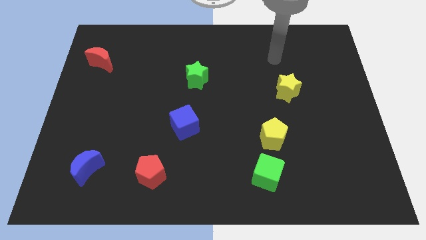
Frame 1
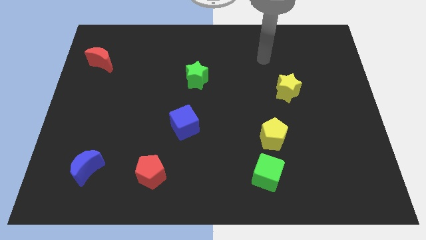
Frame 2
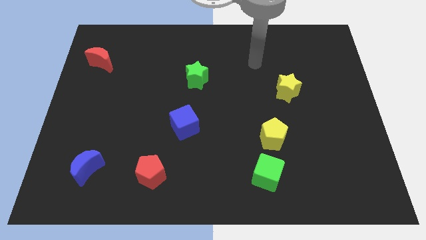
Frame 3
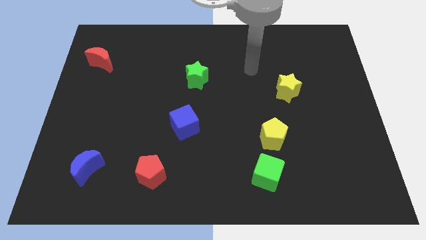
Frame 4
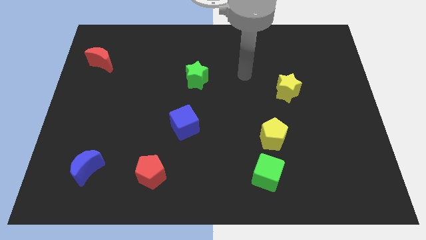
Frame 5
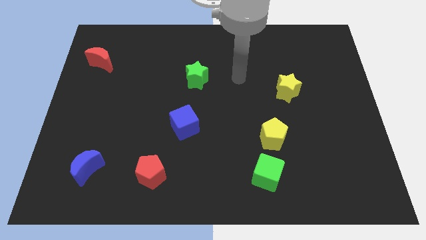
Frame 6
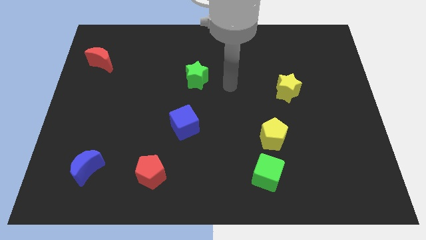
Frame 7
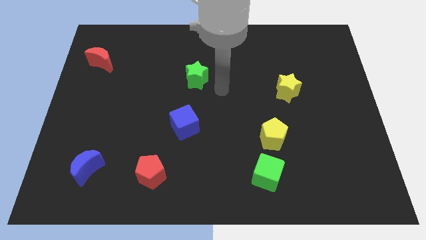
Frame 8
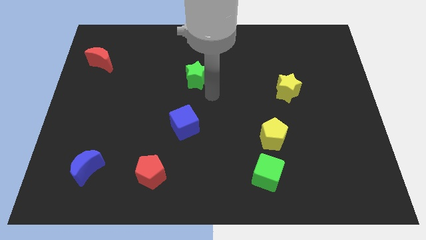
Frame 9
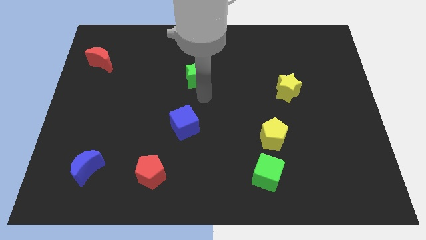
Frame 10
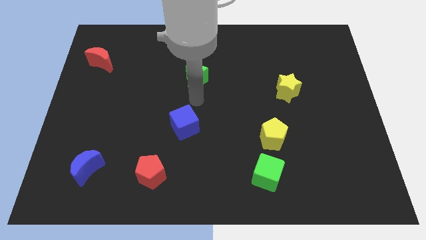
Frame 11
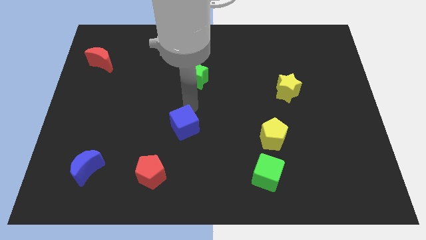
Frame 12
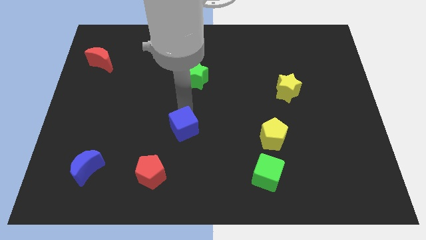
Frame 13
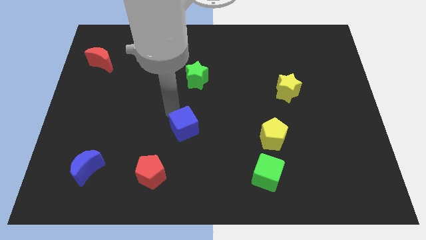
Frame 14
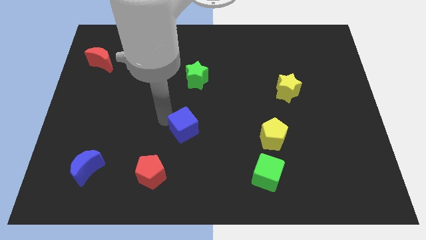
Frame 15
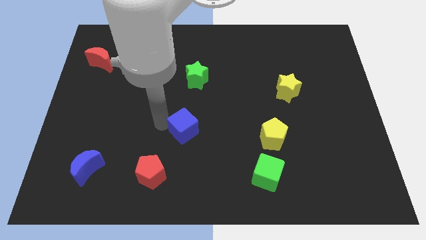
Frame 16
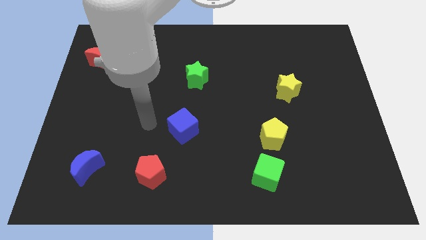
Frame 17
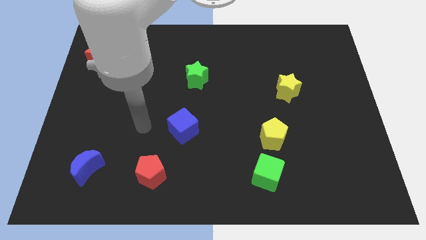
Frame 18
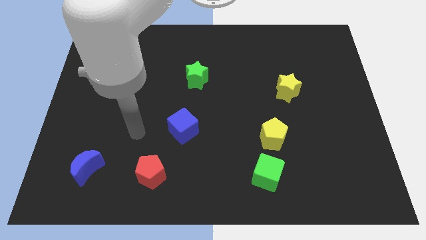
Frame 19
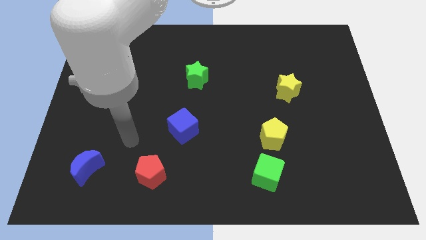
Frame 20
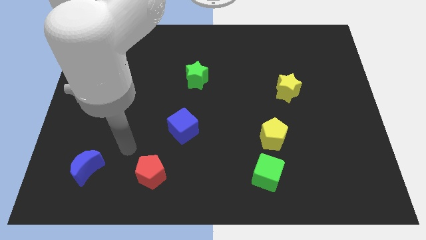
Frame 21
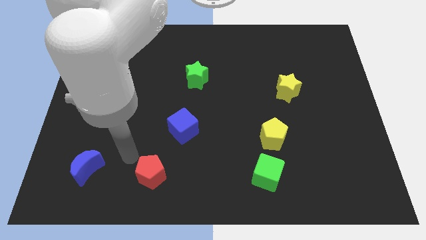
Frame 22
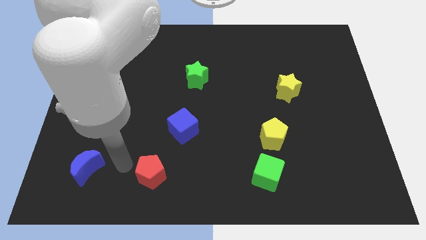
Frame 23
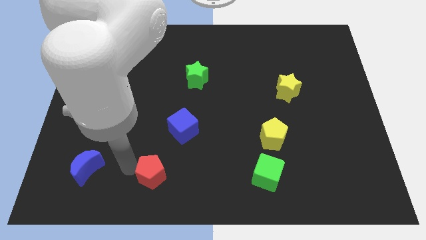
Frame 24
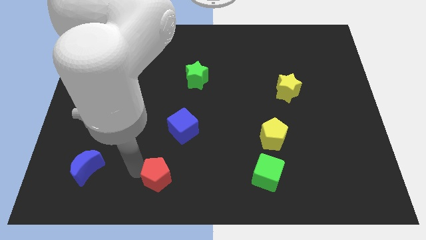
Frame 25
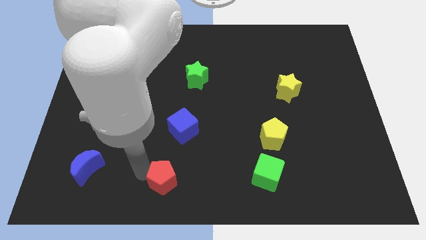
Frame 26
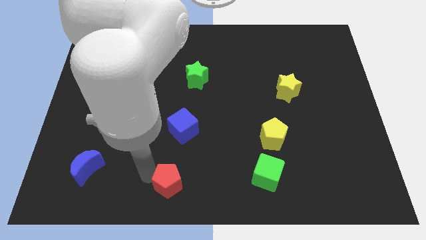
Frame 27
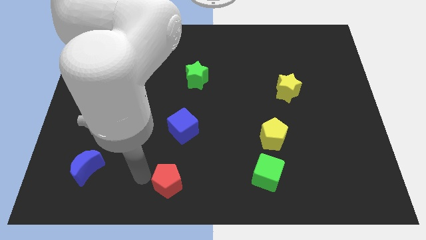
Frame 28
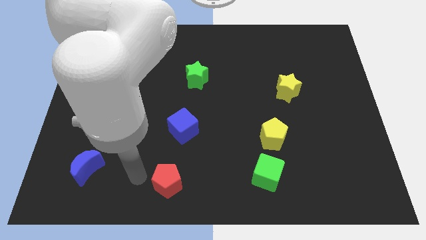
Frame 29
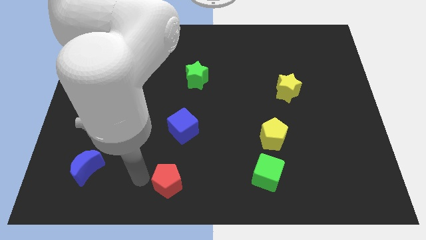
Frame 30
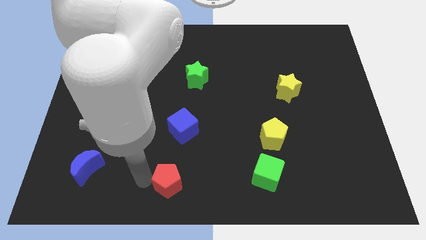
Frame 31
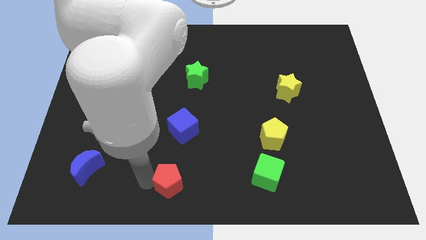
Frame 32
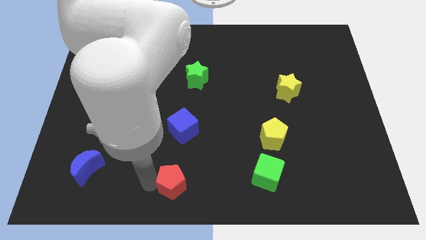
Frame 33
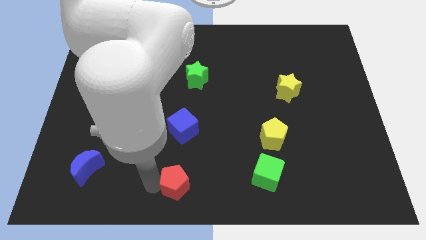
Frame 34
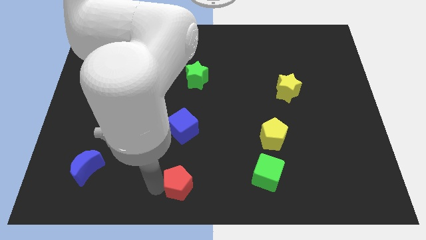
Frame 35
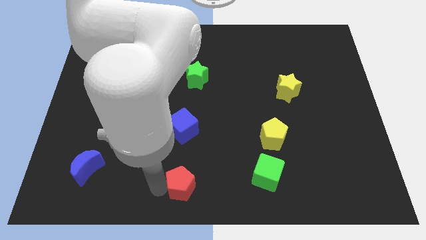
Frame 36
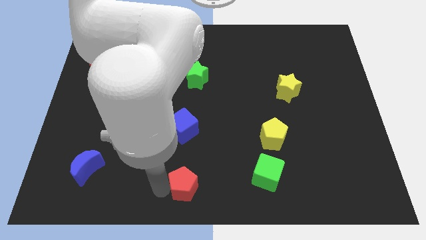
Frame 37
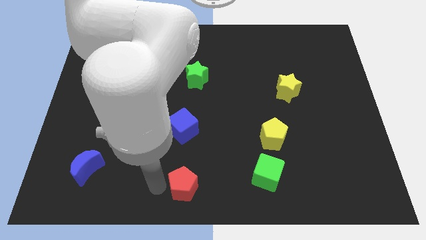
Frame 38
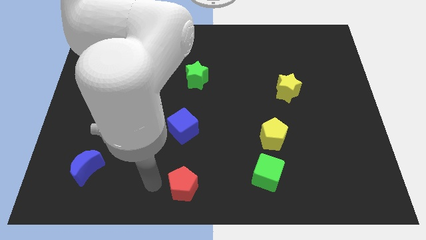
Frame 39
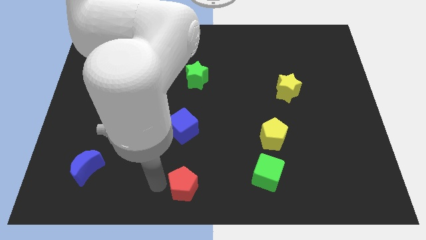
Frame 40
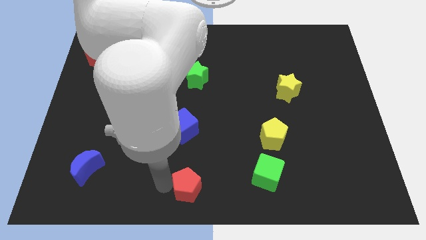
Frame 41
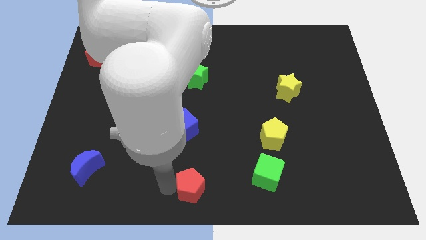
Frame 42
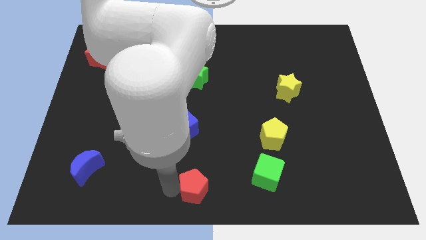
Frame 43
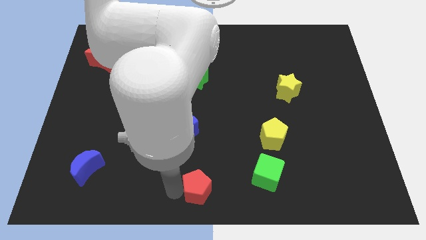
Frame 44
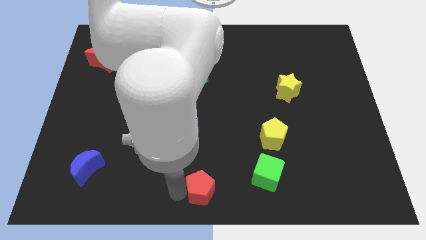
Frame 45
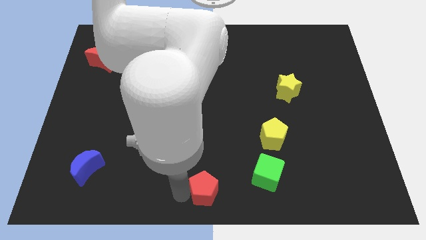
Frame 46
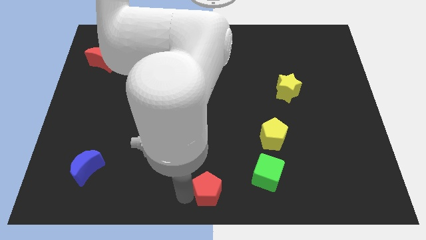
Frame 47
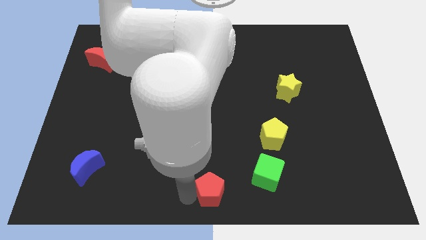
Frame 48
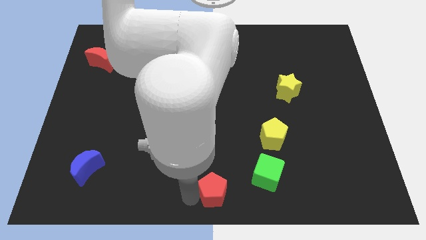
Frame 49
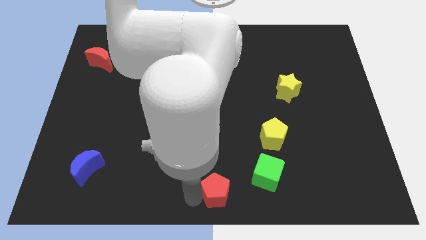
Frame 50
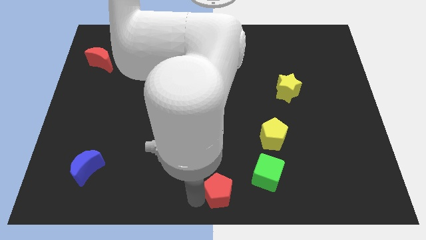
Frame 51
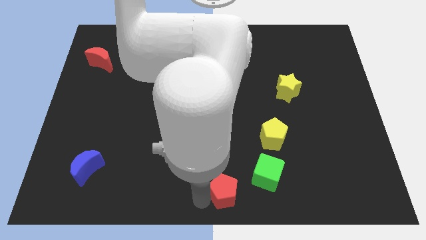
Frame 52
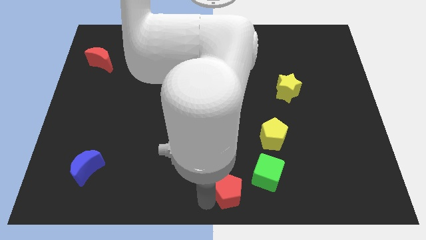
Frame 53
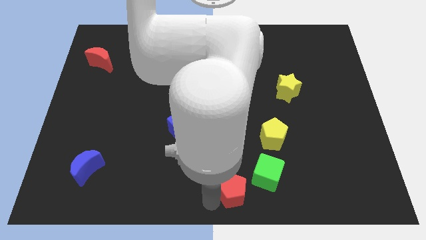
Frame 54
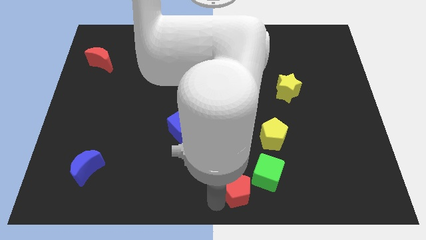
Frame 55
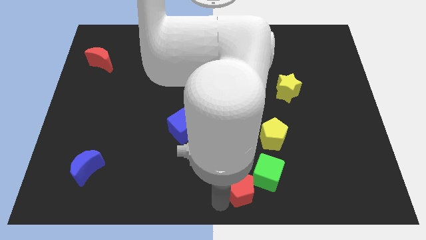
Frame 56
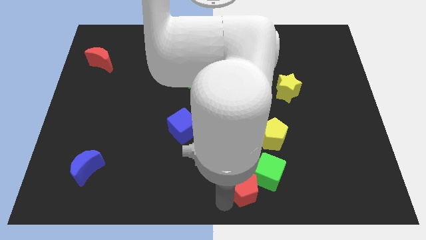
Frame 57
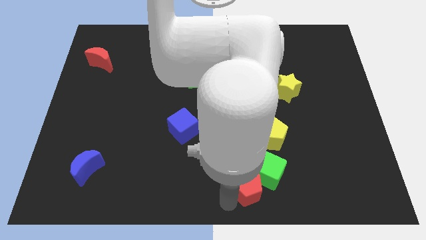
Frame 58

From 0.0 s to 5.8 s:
move the red pentagon close to the green cube

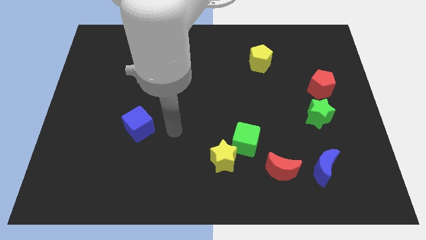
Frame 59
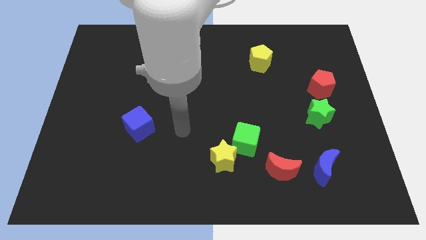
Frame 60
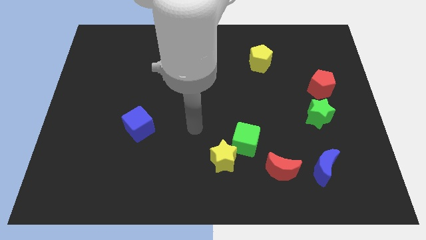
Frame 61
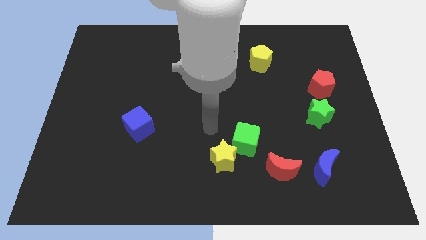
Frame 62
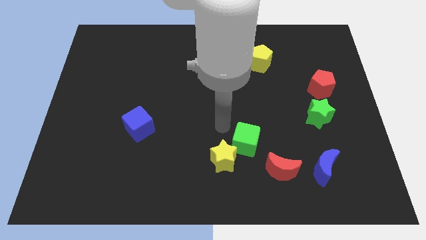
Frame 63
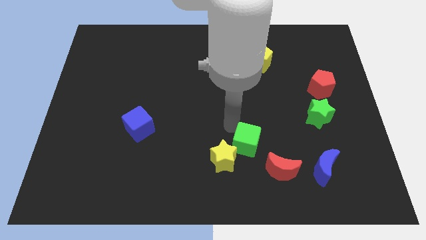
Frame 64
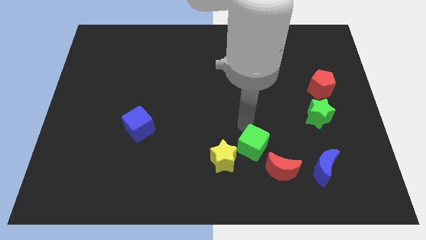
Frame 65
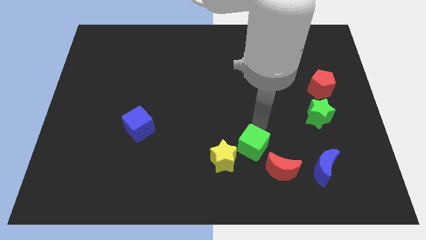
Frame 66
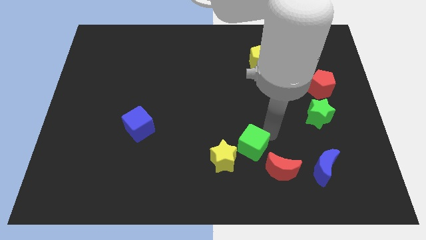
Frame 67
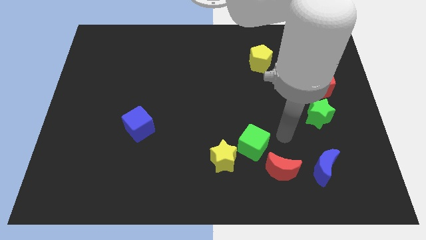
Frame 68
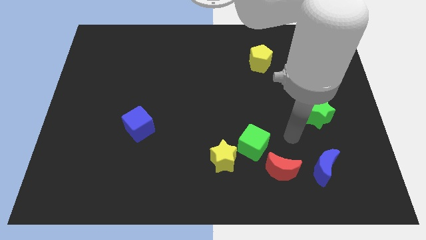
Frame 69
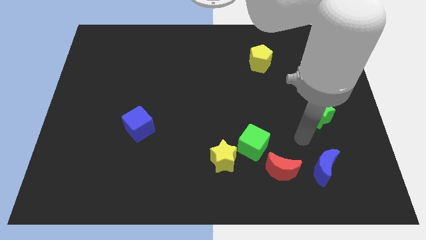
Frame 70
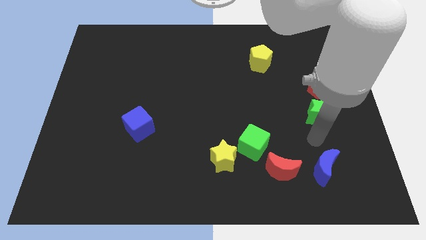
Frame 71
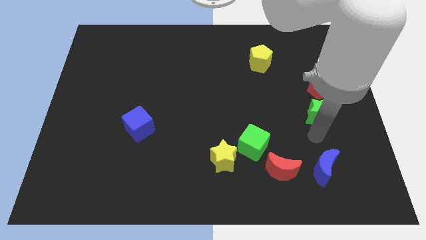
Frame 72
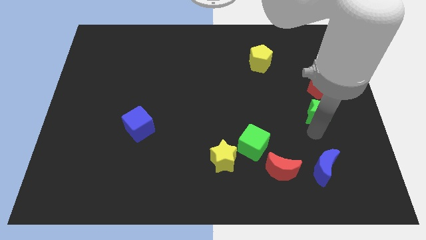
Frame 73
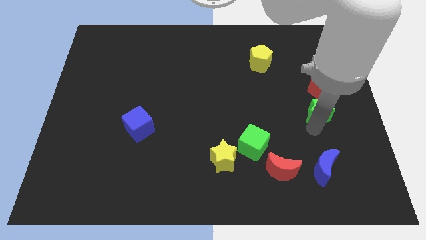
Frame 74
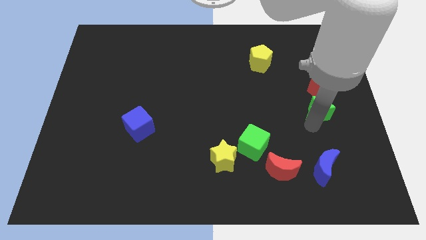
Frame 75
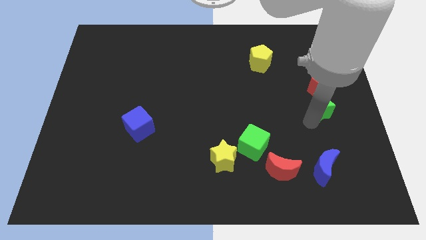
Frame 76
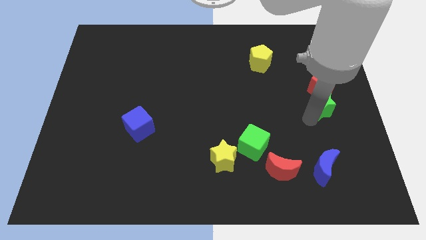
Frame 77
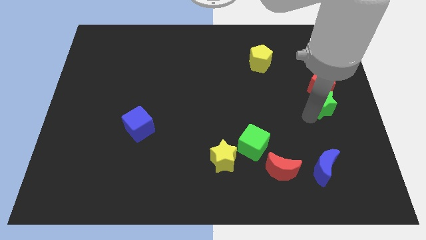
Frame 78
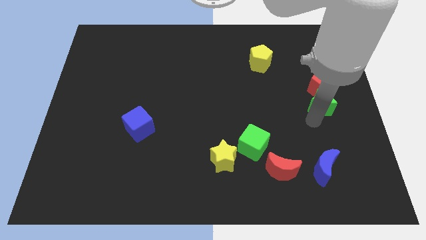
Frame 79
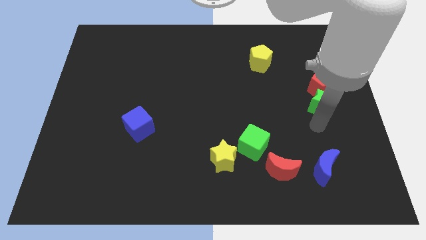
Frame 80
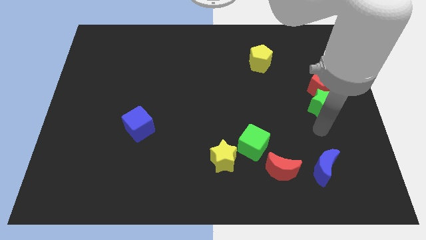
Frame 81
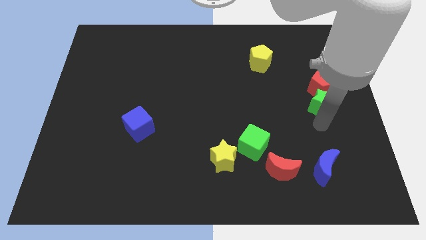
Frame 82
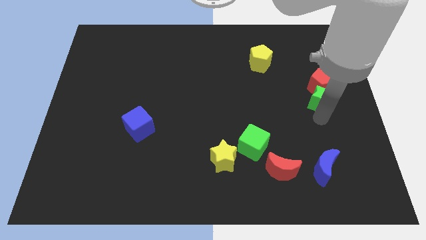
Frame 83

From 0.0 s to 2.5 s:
move the green star close to the red pentagon
